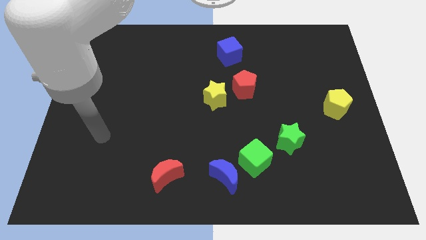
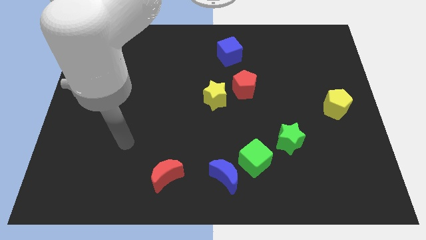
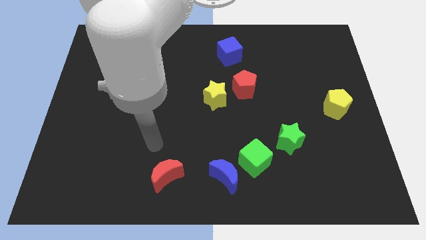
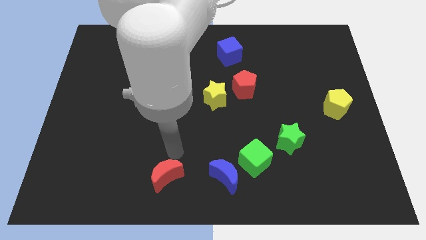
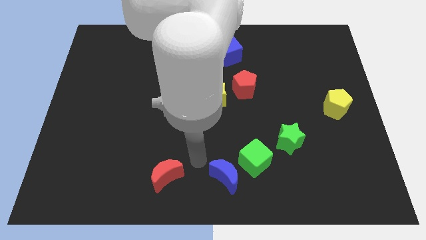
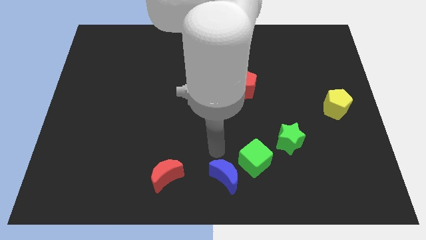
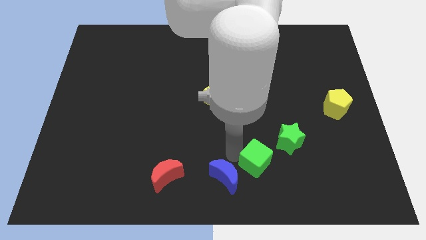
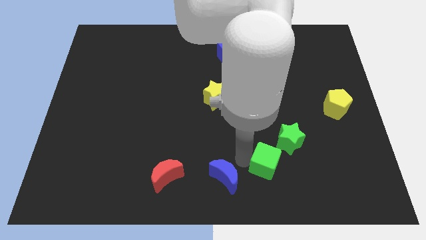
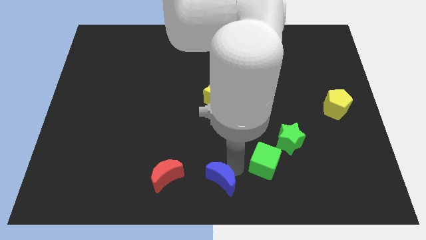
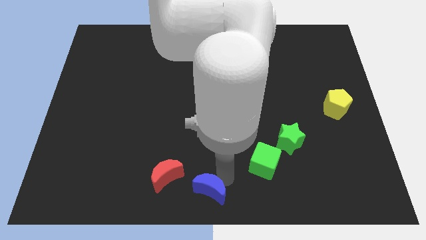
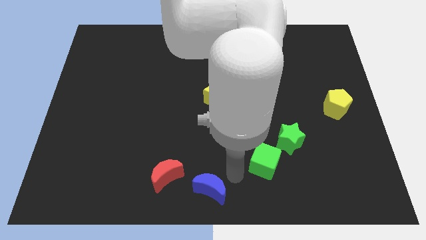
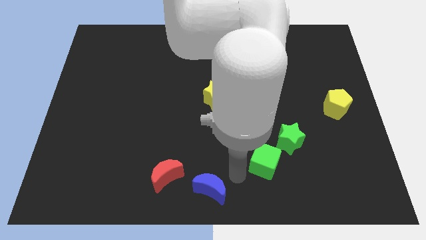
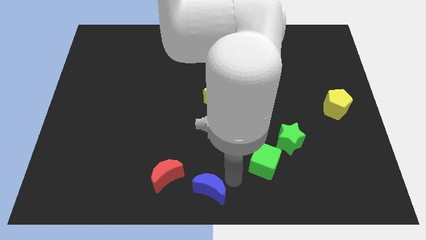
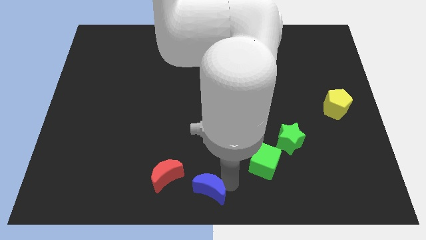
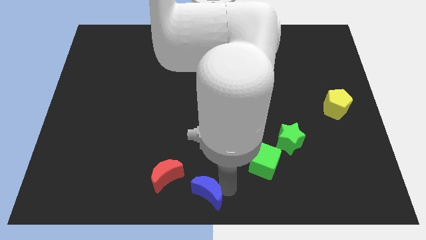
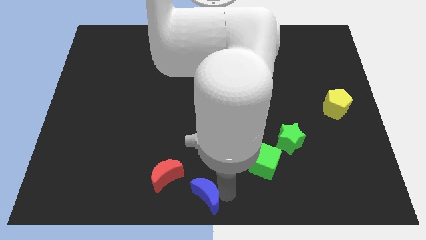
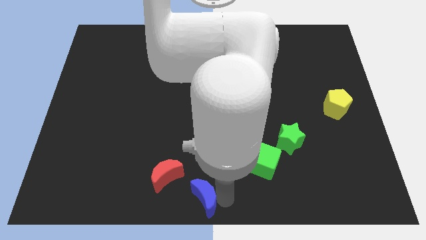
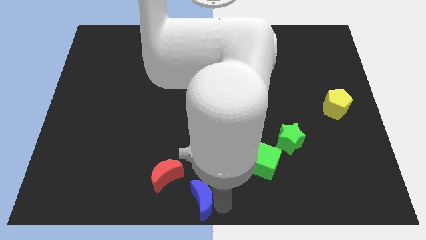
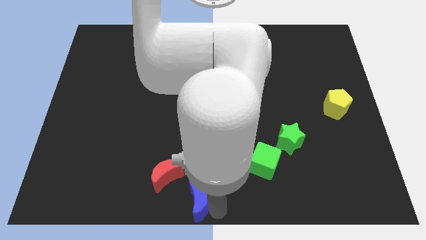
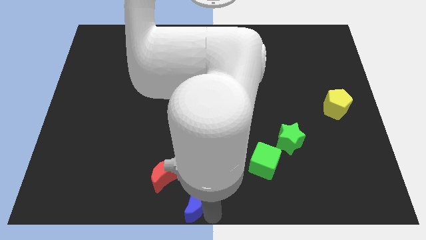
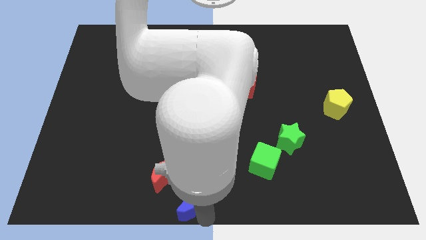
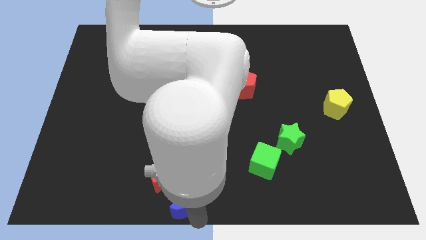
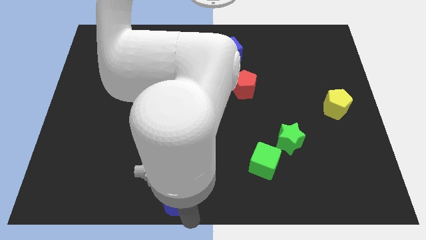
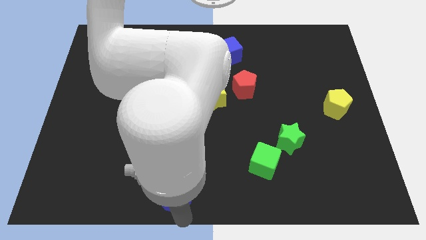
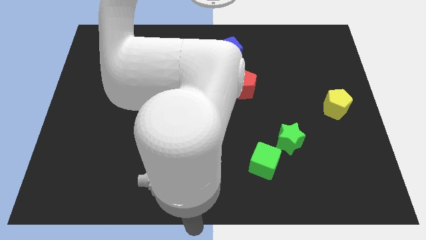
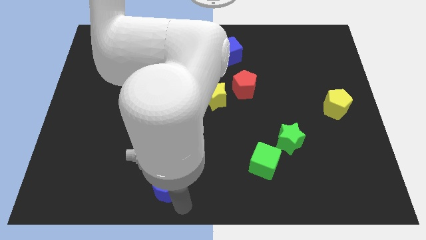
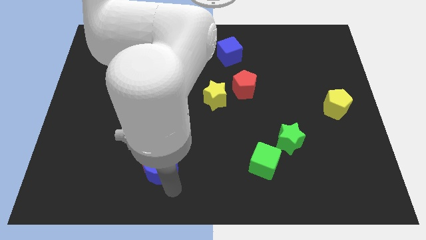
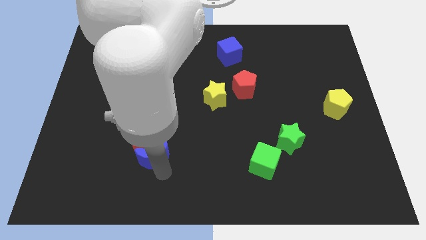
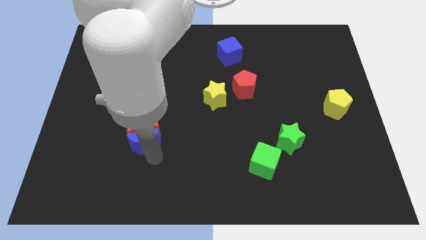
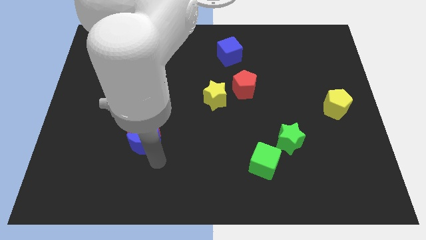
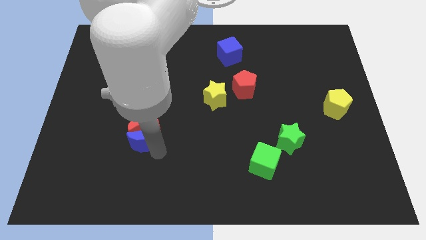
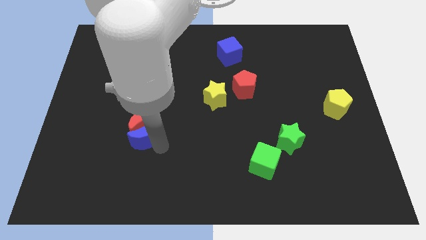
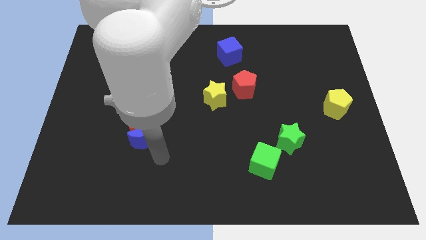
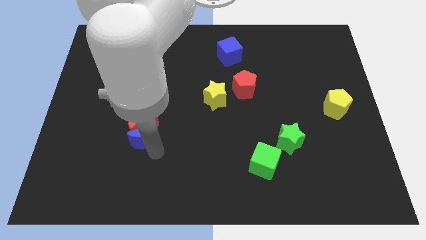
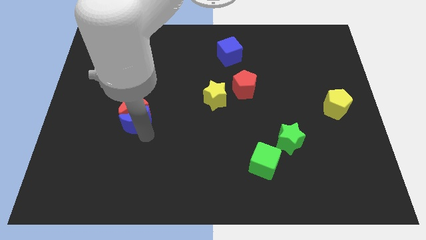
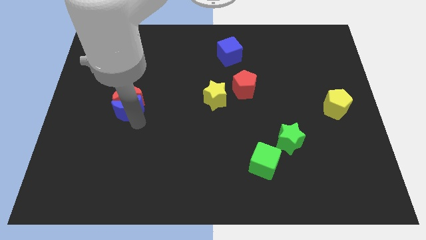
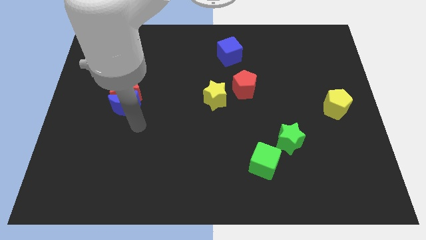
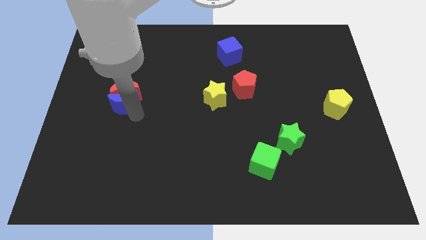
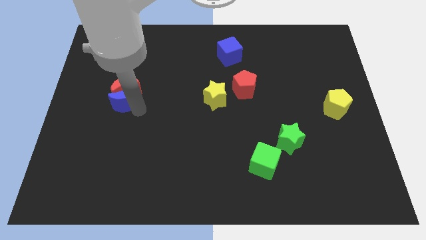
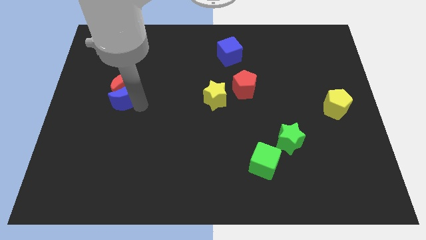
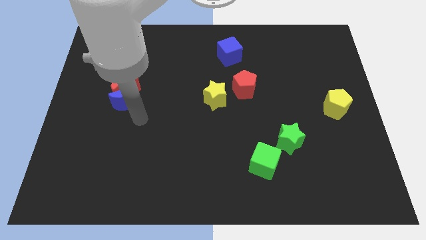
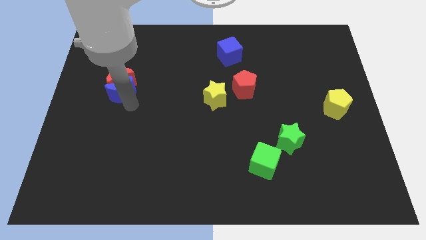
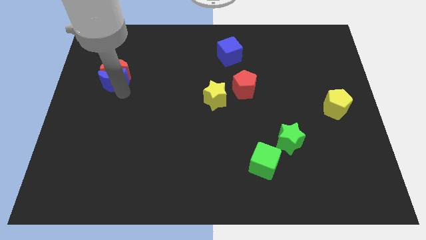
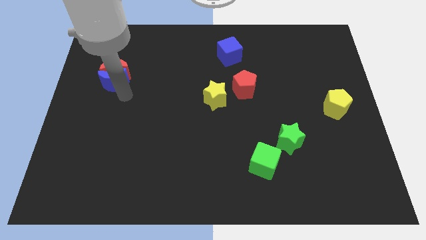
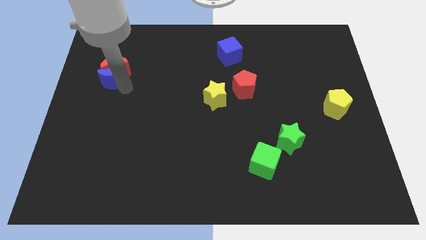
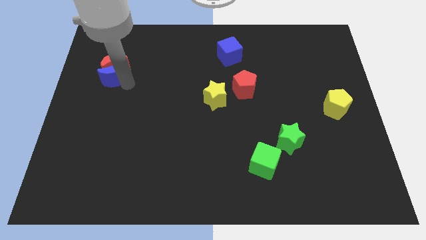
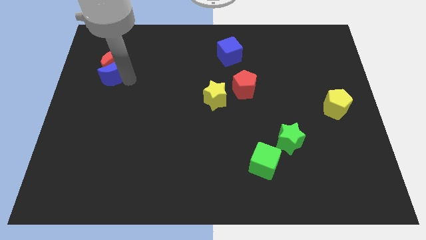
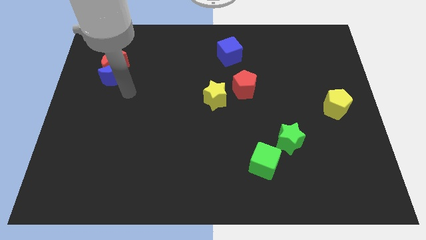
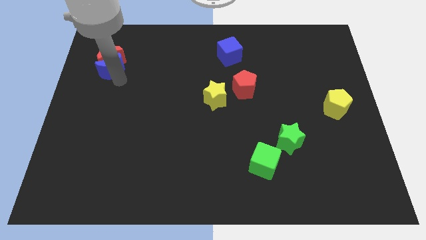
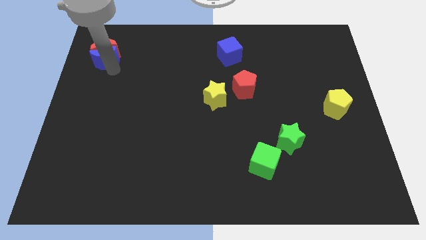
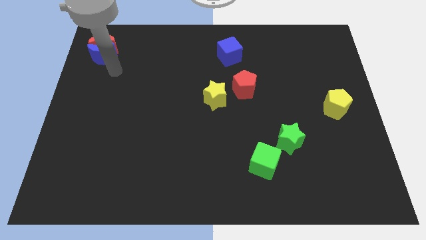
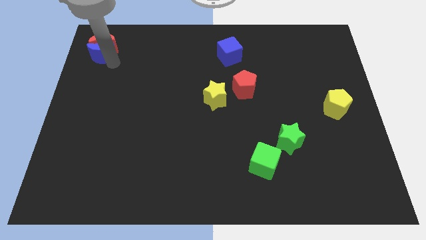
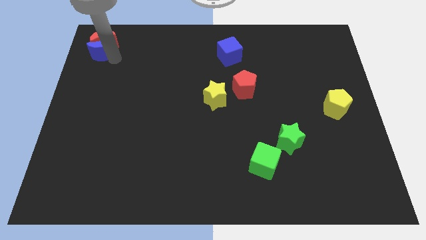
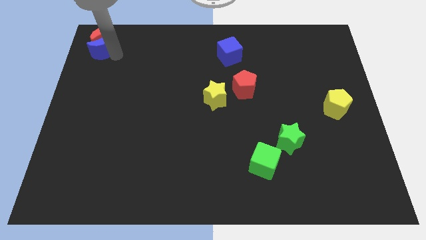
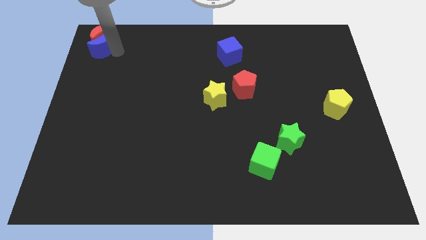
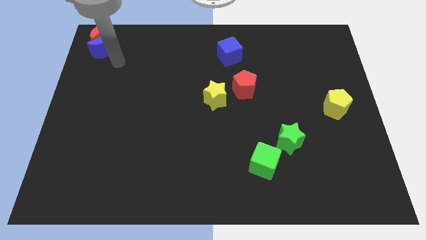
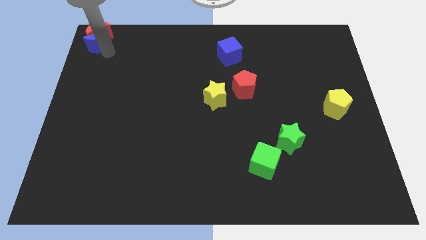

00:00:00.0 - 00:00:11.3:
slide the blue moon to the top left

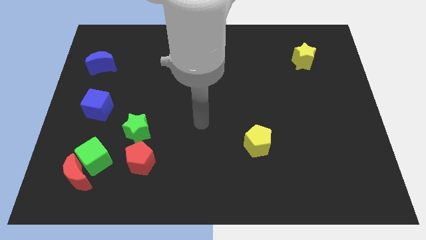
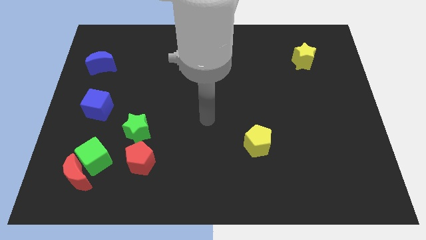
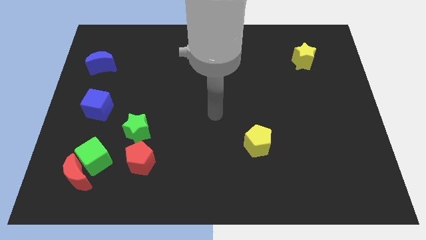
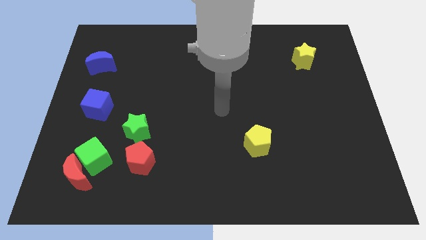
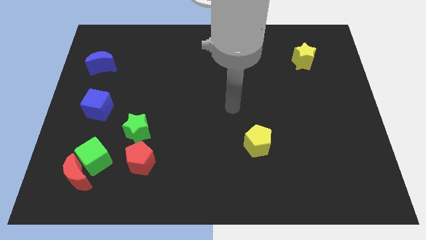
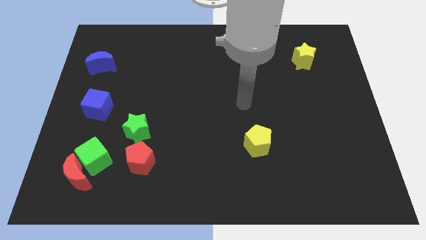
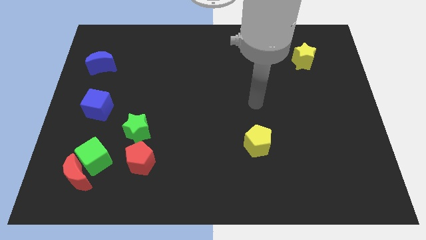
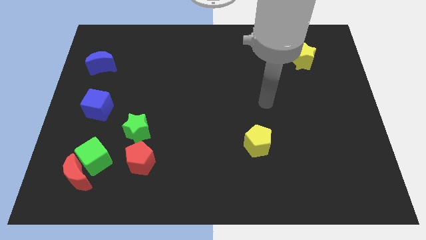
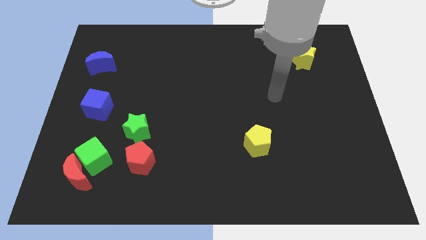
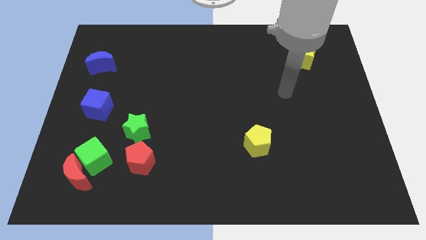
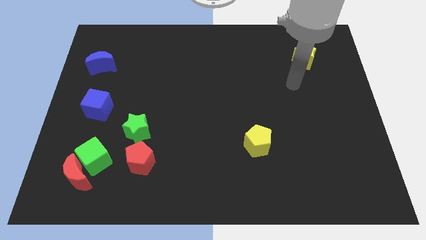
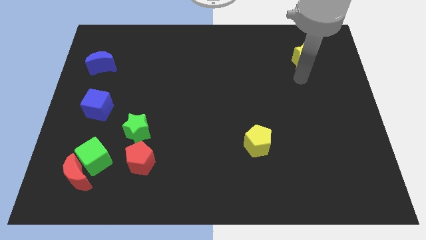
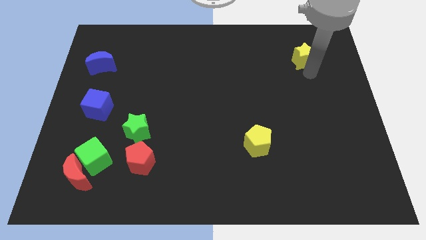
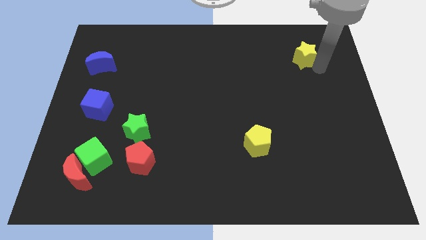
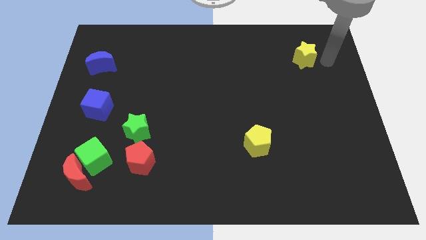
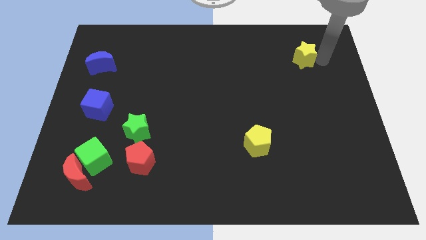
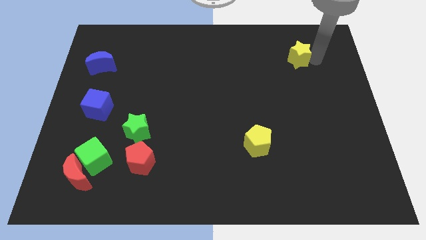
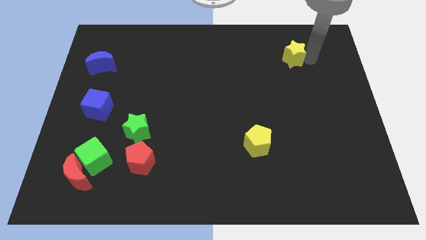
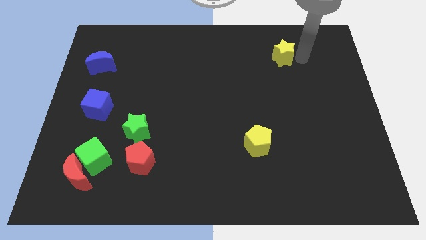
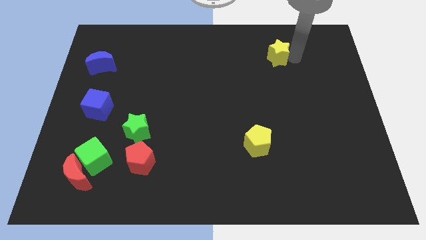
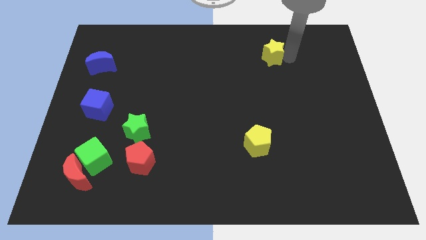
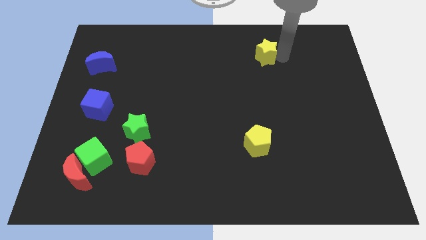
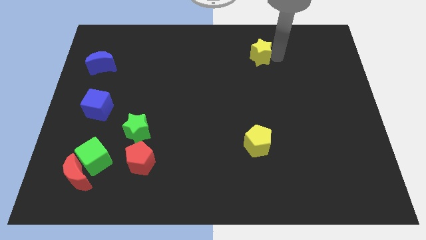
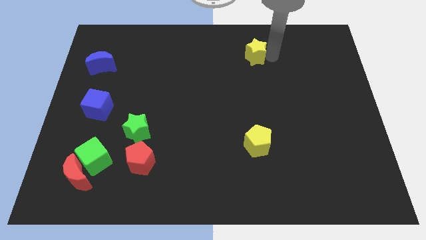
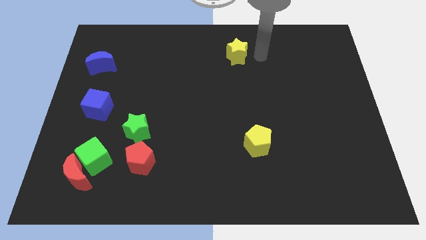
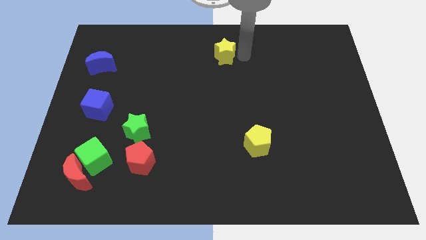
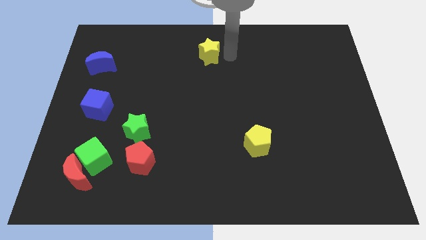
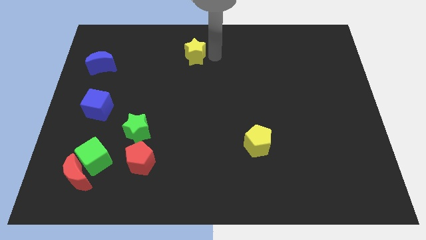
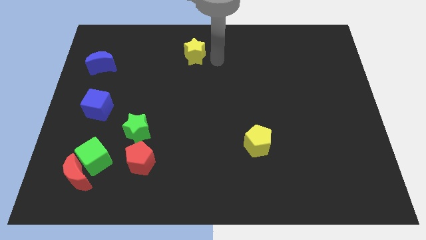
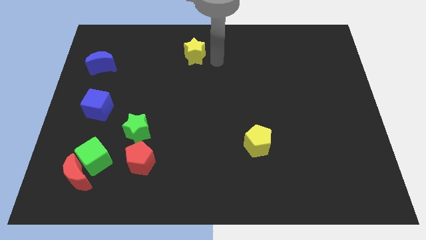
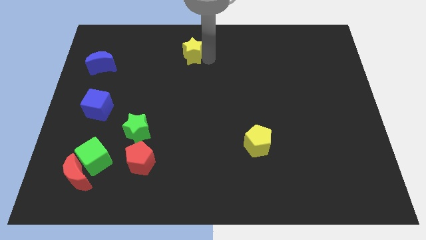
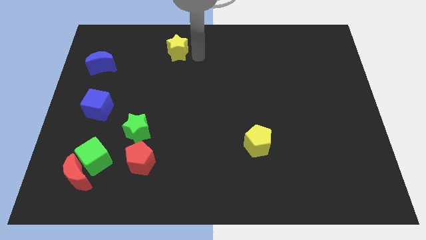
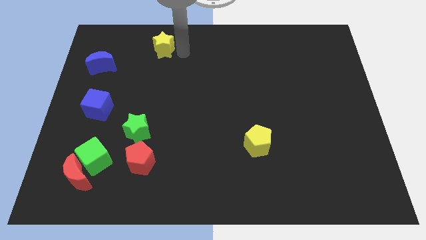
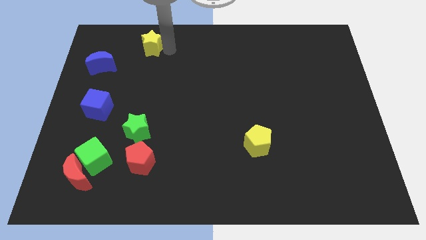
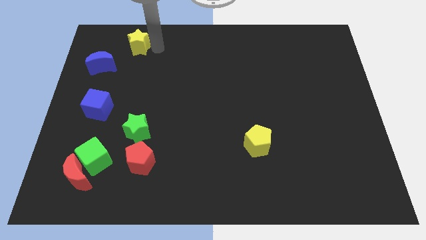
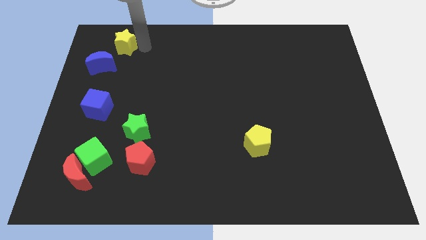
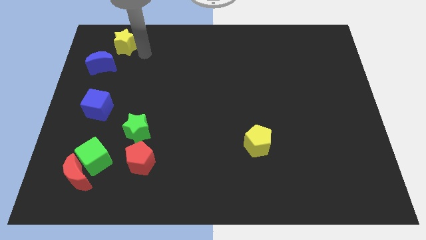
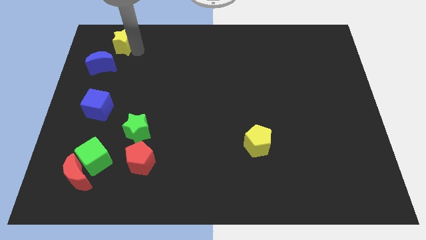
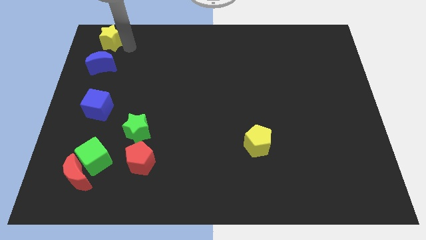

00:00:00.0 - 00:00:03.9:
move the yellow star to the top left
